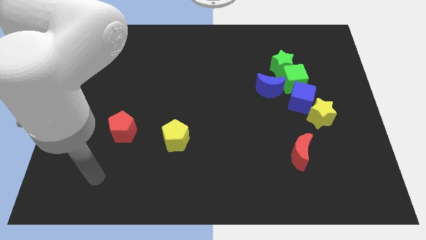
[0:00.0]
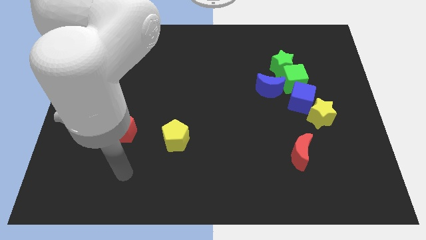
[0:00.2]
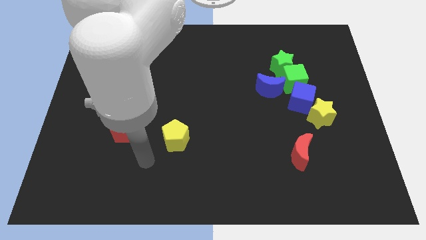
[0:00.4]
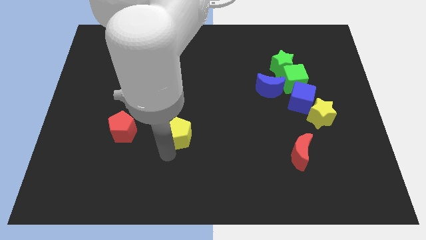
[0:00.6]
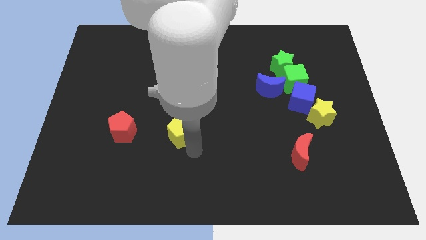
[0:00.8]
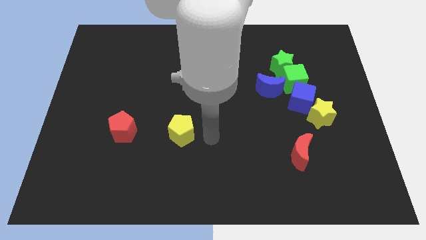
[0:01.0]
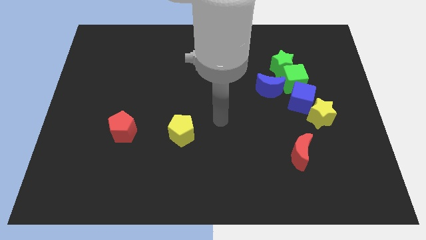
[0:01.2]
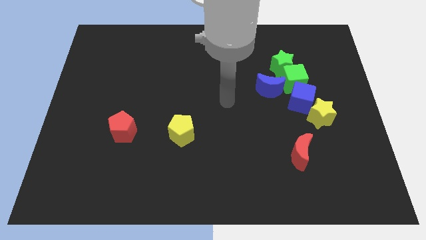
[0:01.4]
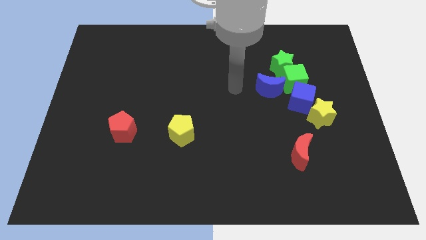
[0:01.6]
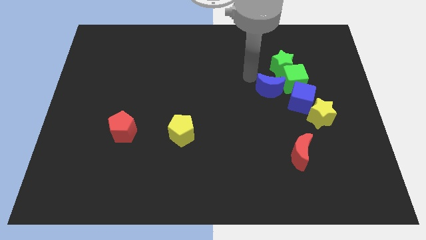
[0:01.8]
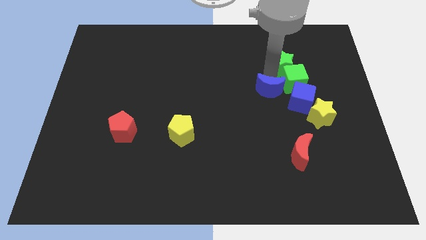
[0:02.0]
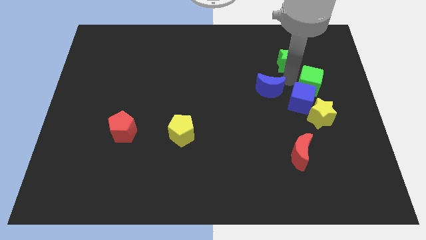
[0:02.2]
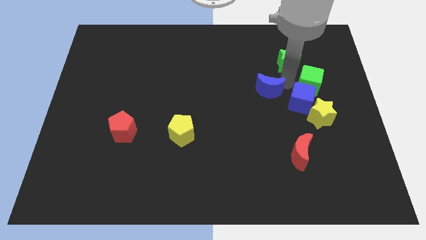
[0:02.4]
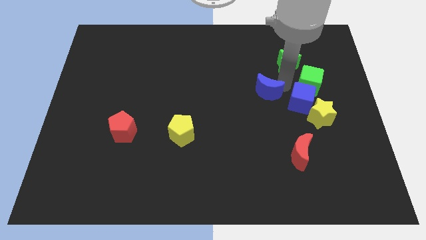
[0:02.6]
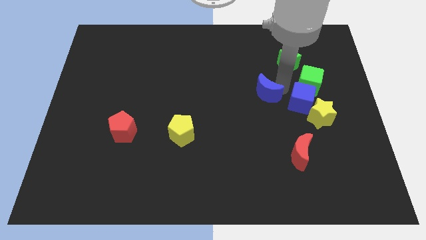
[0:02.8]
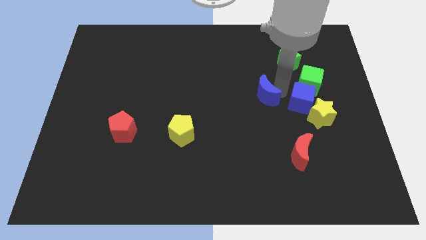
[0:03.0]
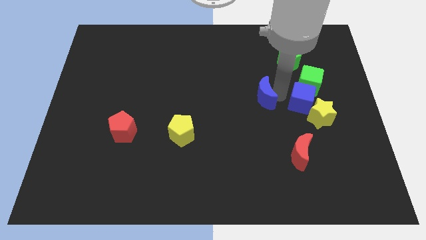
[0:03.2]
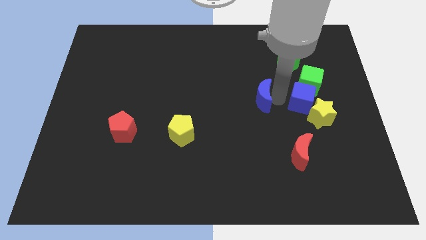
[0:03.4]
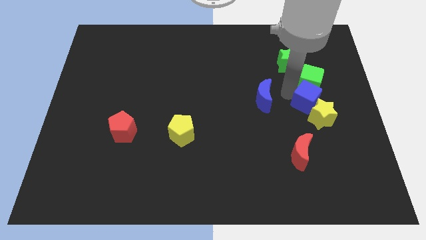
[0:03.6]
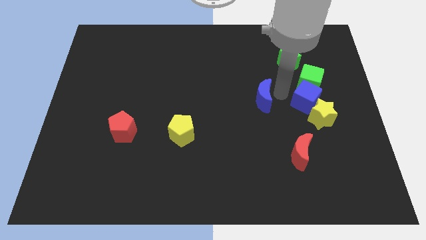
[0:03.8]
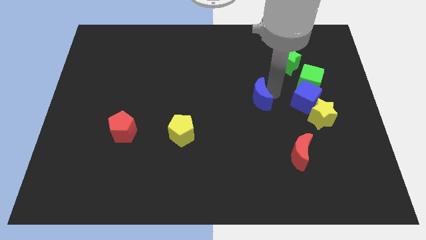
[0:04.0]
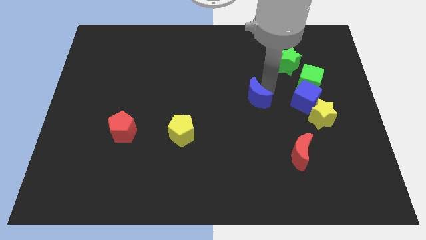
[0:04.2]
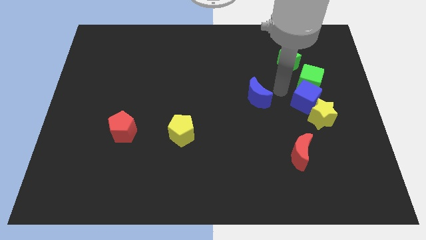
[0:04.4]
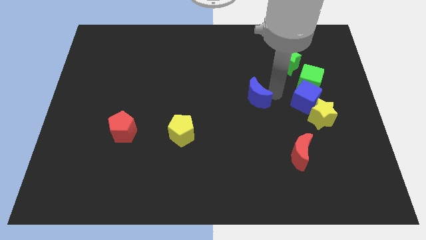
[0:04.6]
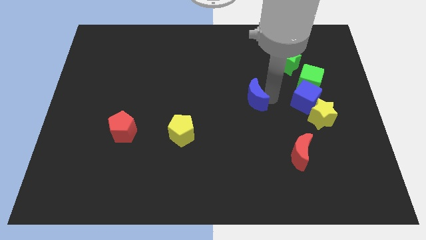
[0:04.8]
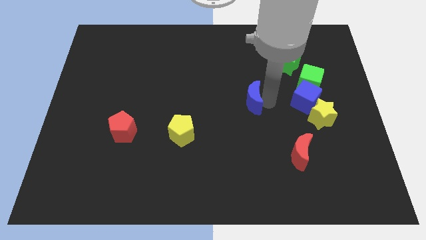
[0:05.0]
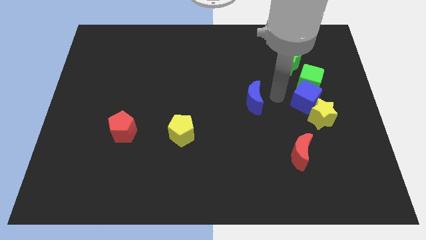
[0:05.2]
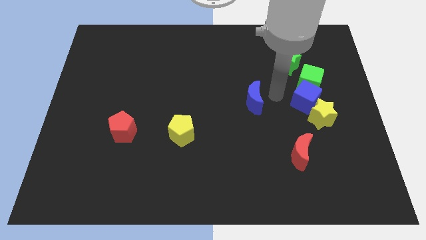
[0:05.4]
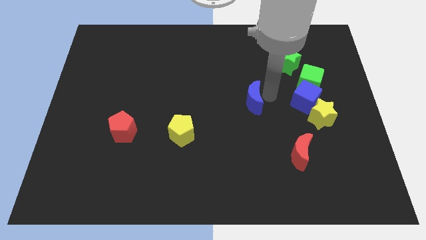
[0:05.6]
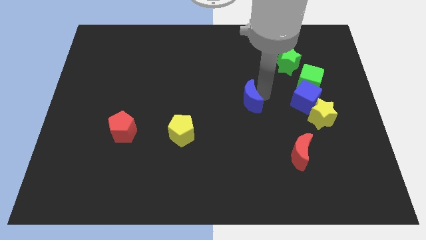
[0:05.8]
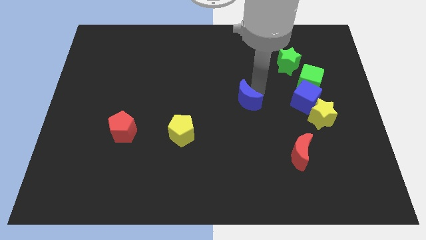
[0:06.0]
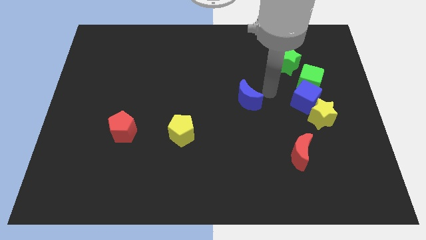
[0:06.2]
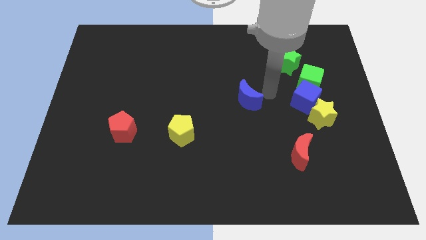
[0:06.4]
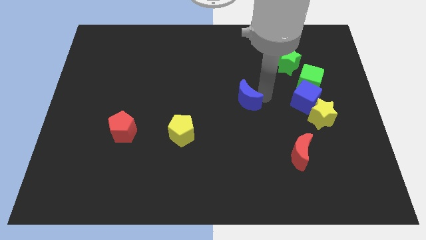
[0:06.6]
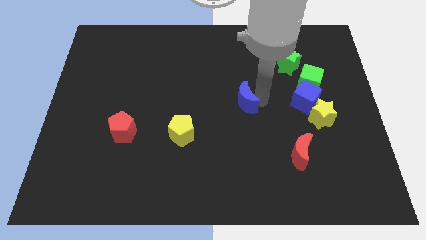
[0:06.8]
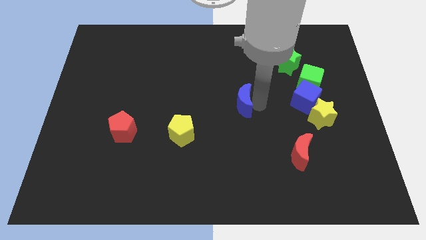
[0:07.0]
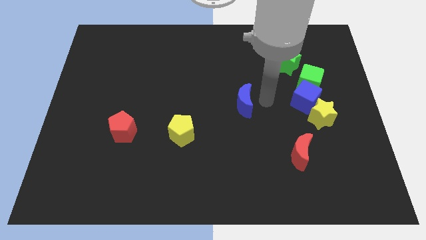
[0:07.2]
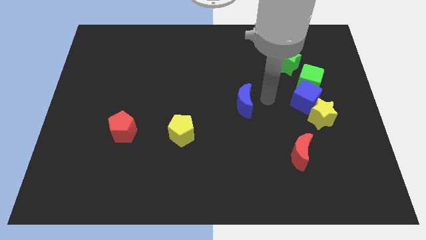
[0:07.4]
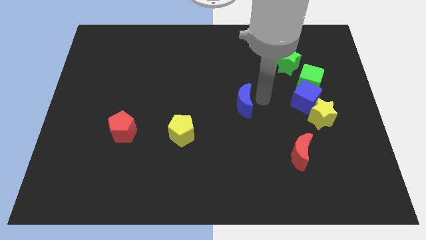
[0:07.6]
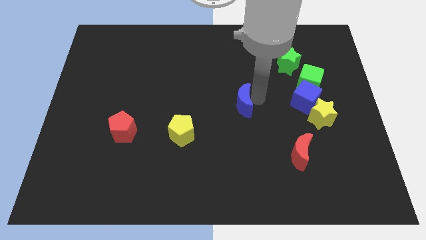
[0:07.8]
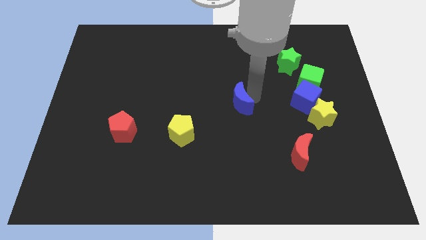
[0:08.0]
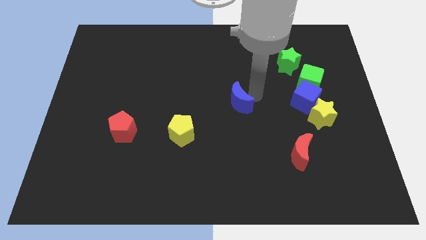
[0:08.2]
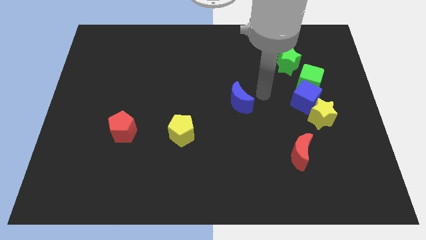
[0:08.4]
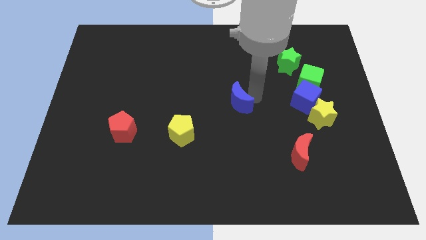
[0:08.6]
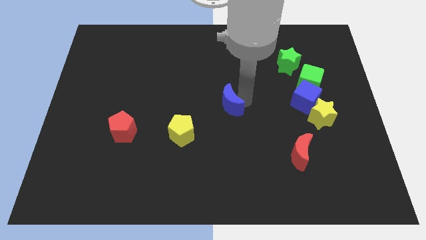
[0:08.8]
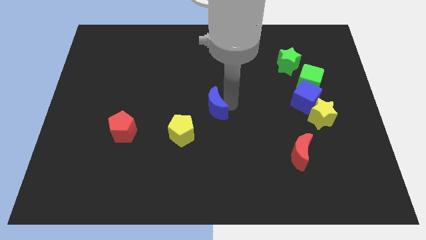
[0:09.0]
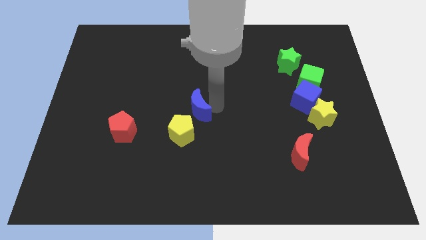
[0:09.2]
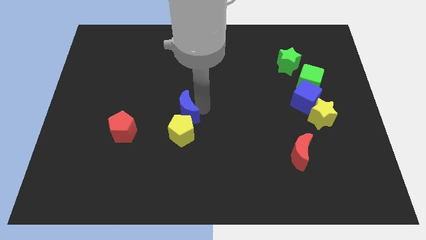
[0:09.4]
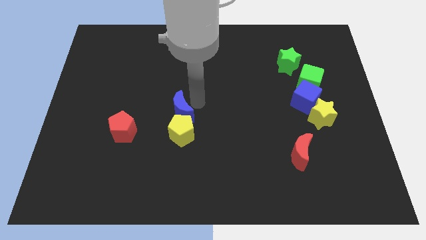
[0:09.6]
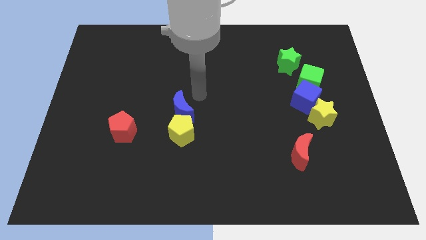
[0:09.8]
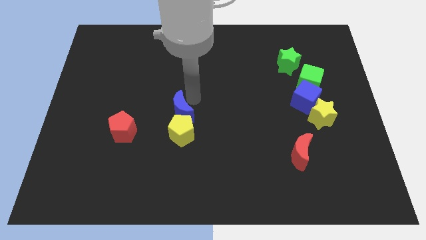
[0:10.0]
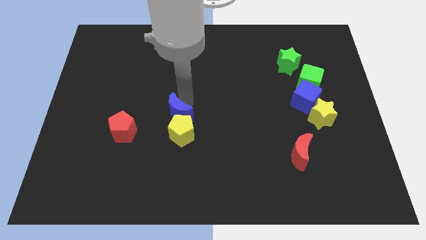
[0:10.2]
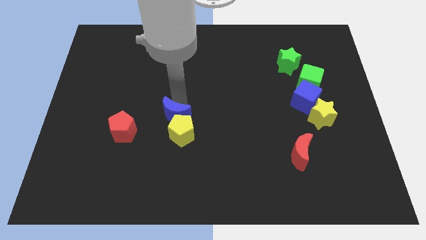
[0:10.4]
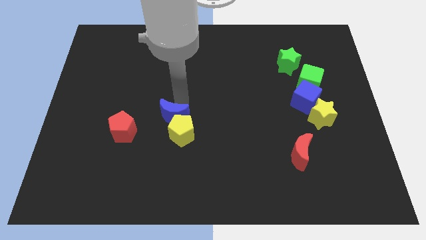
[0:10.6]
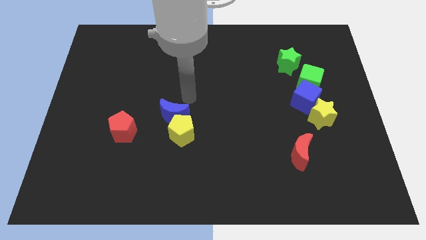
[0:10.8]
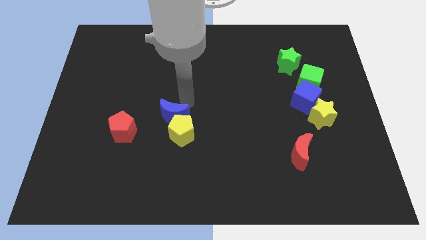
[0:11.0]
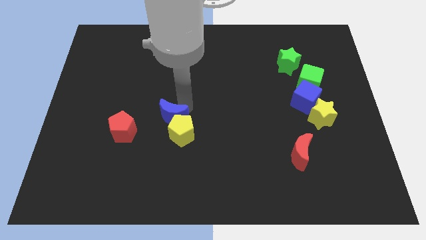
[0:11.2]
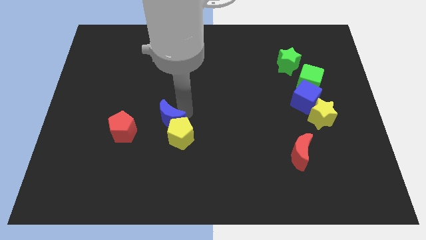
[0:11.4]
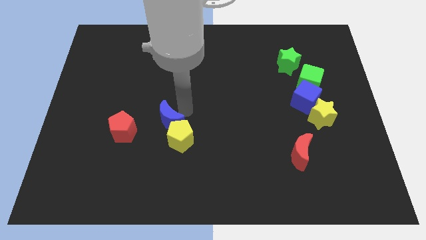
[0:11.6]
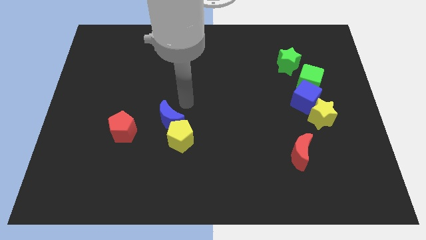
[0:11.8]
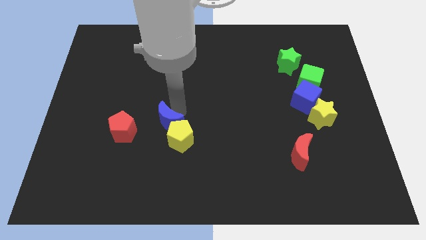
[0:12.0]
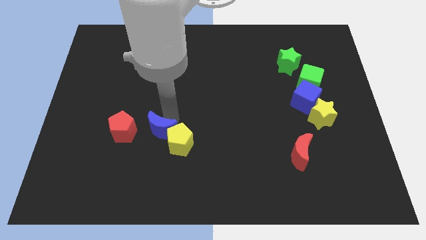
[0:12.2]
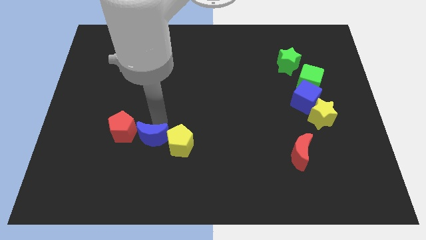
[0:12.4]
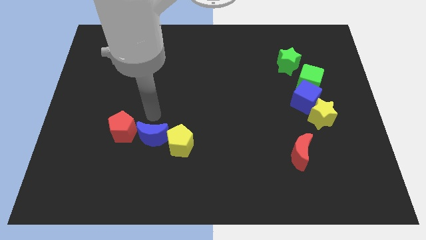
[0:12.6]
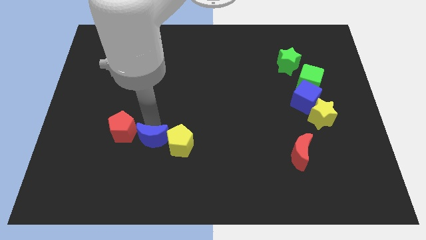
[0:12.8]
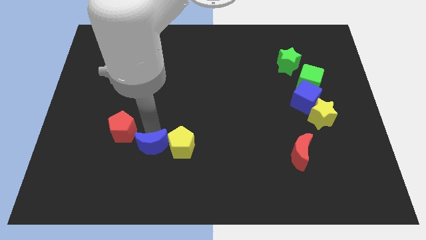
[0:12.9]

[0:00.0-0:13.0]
slide the blue moon to the bottom left of the yellow pentagon

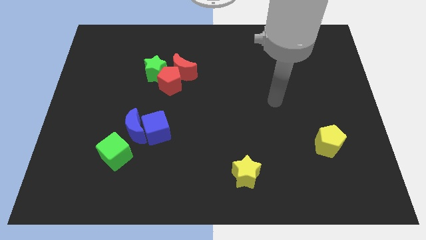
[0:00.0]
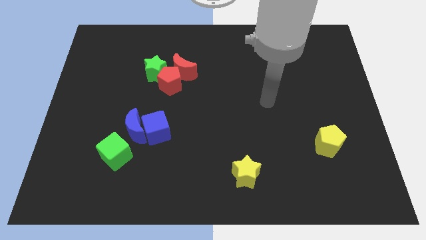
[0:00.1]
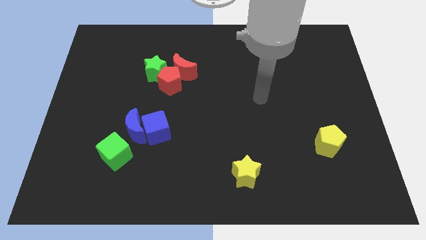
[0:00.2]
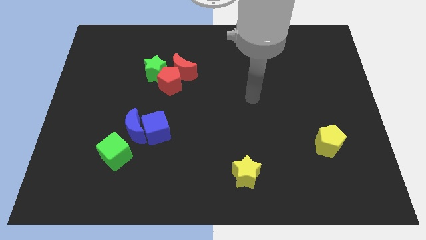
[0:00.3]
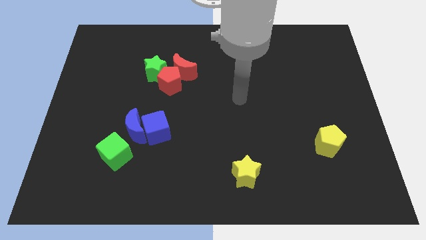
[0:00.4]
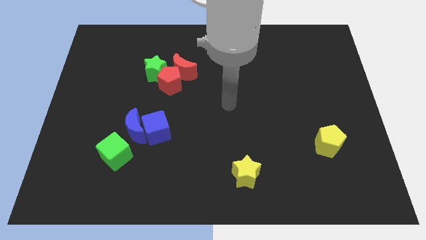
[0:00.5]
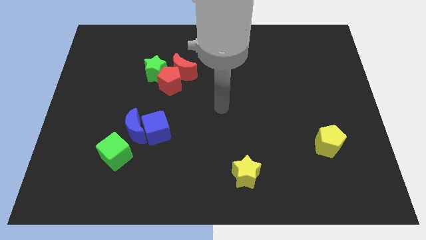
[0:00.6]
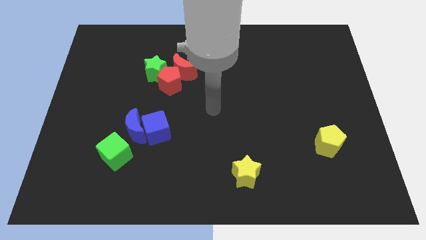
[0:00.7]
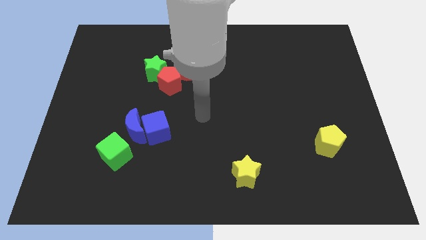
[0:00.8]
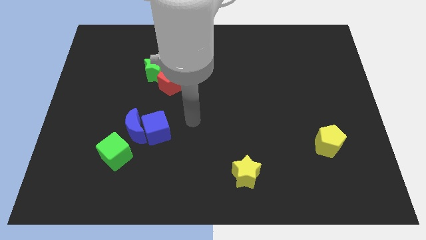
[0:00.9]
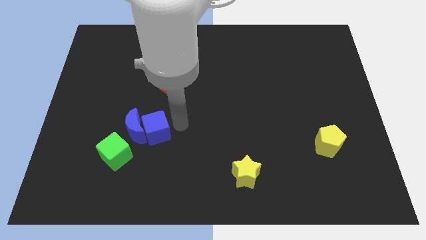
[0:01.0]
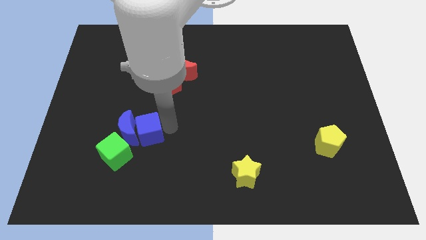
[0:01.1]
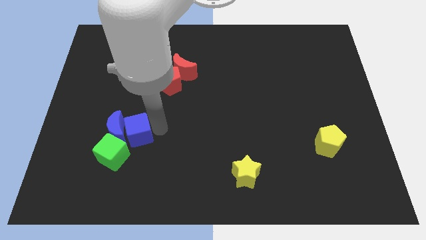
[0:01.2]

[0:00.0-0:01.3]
put the blue moon to the top left of the green cube
